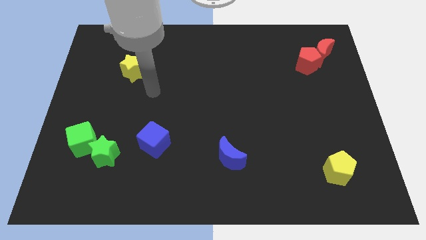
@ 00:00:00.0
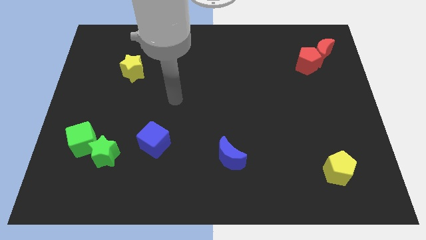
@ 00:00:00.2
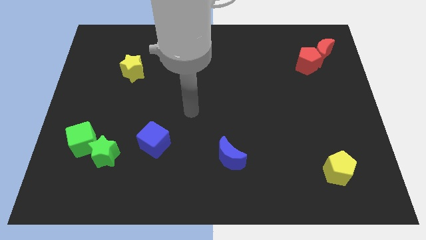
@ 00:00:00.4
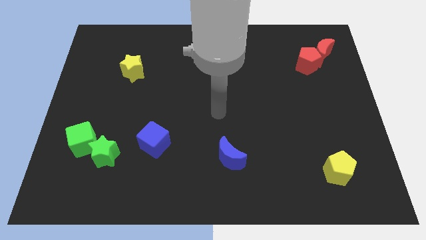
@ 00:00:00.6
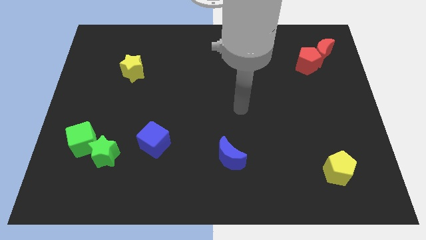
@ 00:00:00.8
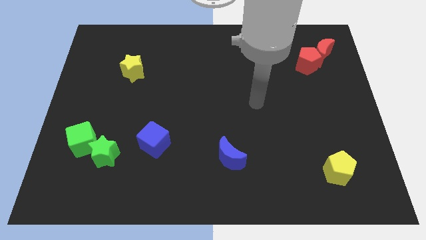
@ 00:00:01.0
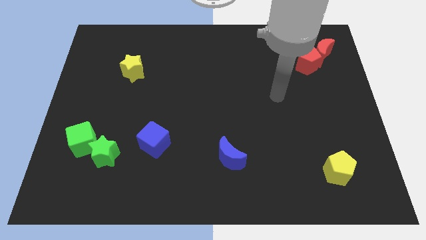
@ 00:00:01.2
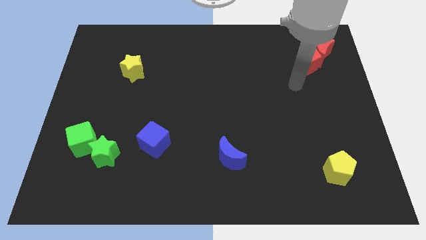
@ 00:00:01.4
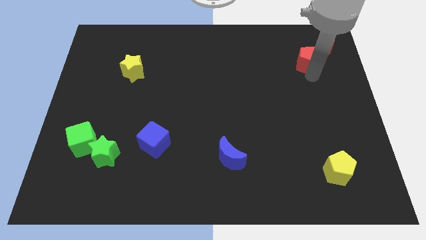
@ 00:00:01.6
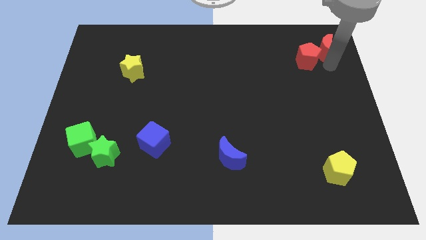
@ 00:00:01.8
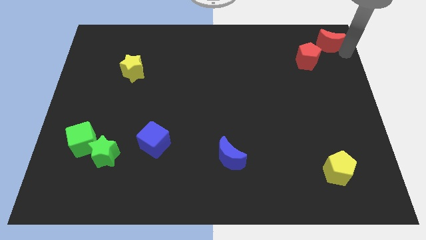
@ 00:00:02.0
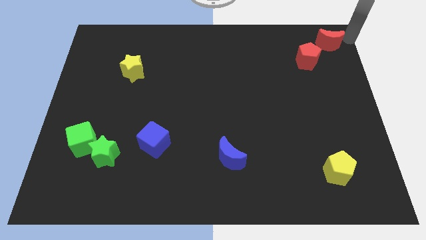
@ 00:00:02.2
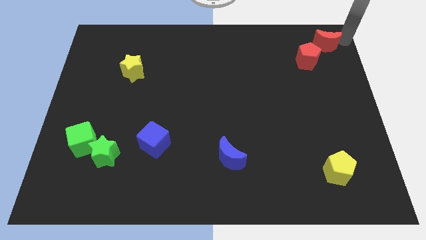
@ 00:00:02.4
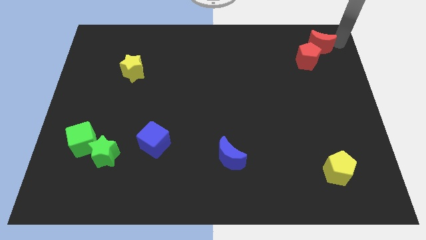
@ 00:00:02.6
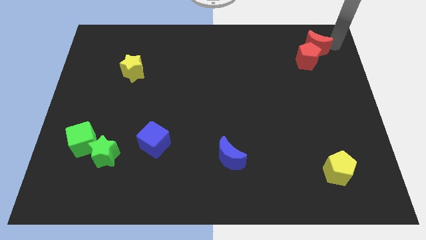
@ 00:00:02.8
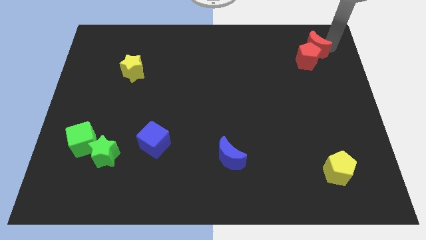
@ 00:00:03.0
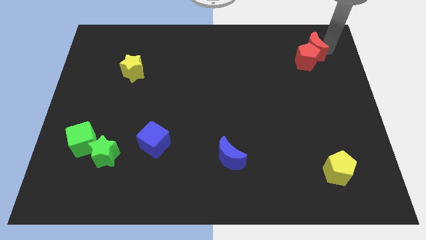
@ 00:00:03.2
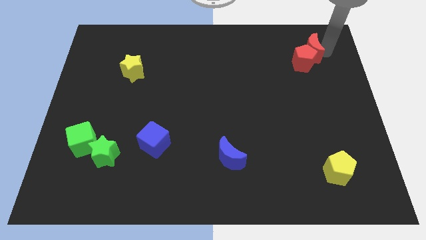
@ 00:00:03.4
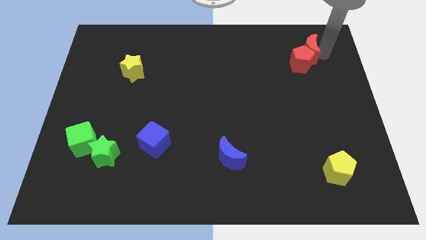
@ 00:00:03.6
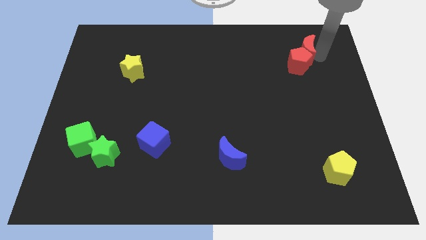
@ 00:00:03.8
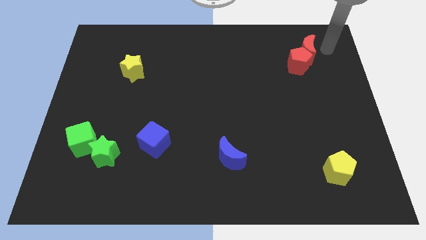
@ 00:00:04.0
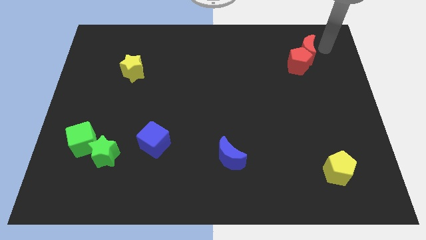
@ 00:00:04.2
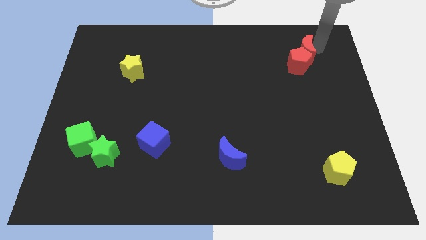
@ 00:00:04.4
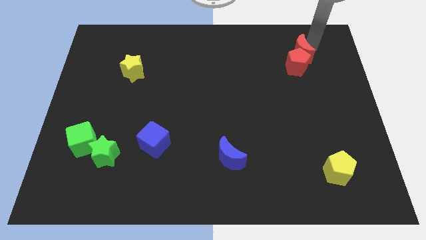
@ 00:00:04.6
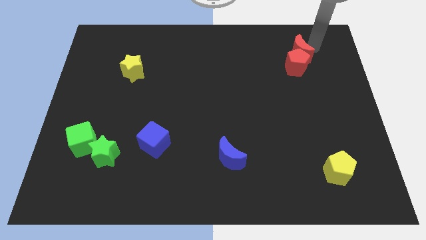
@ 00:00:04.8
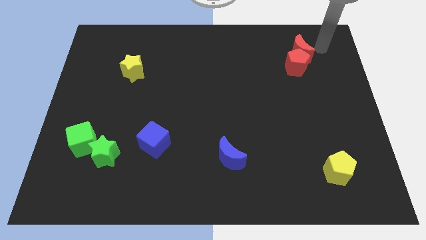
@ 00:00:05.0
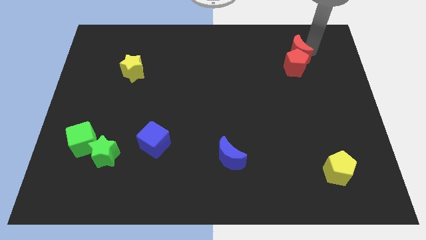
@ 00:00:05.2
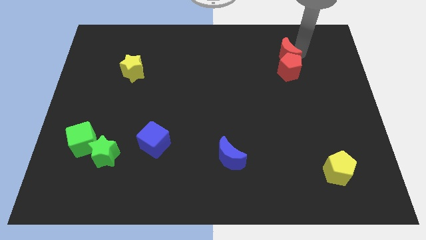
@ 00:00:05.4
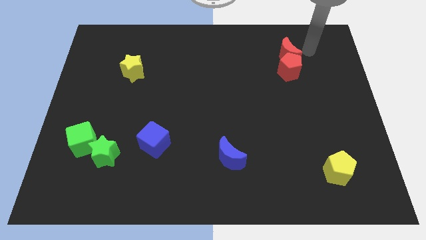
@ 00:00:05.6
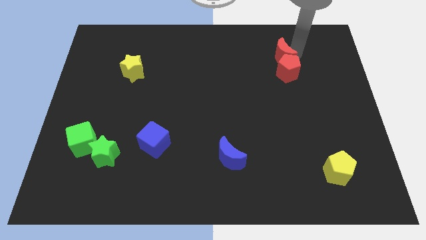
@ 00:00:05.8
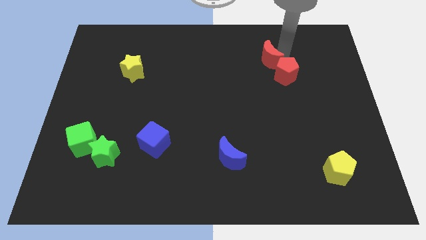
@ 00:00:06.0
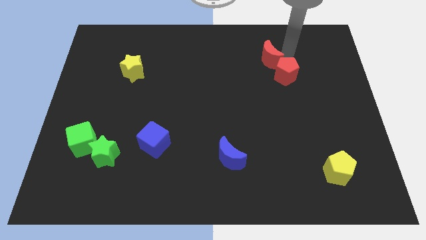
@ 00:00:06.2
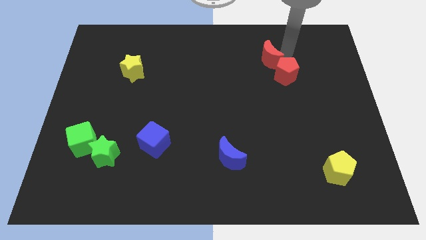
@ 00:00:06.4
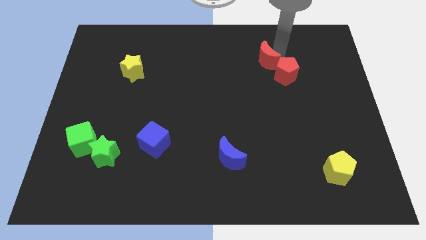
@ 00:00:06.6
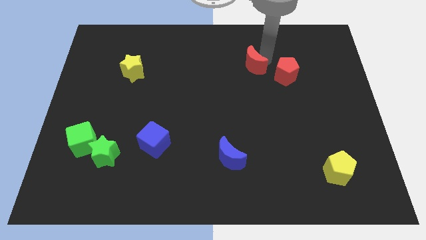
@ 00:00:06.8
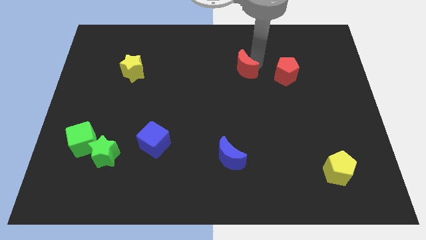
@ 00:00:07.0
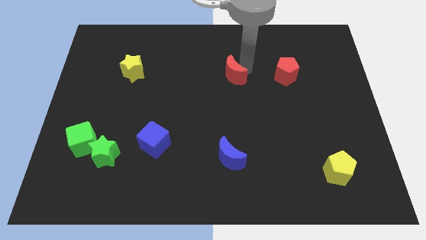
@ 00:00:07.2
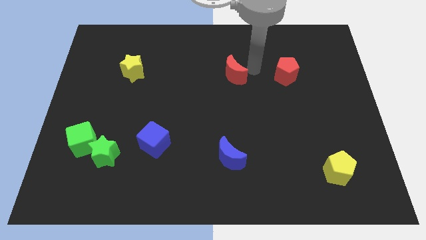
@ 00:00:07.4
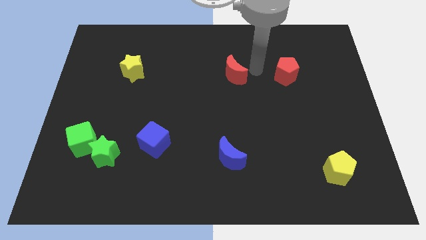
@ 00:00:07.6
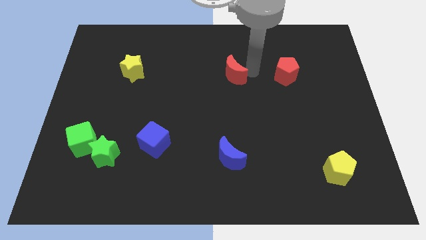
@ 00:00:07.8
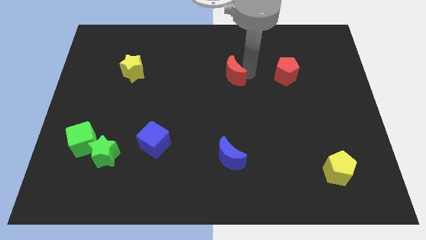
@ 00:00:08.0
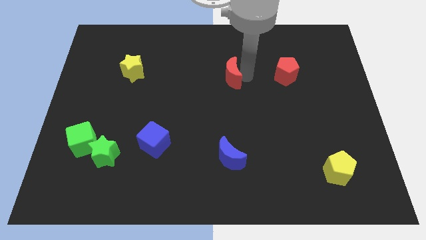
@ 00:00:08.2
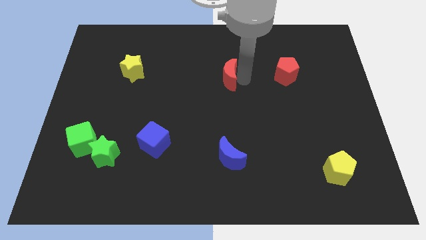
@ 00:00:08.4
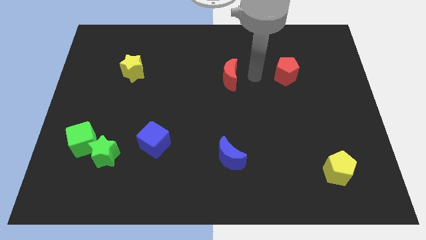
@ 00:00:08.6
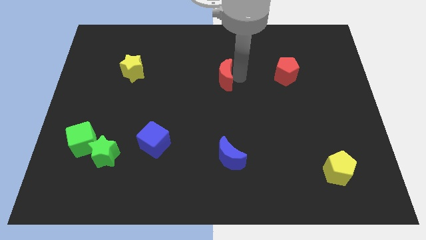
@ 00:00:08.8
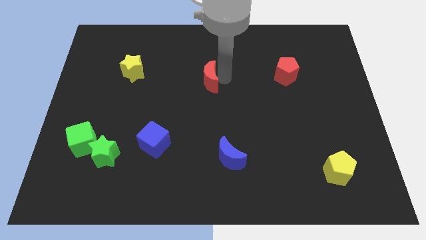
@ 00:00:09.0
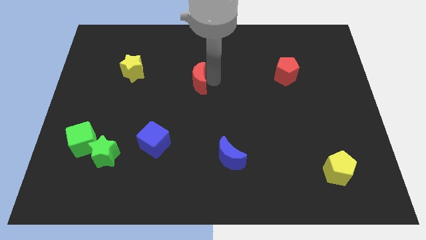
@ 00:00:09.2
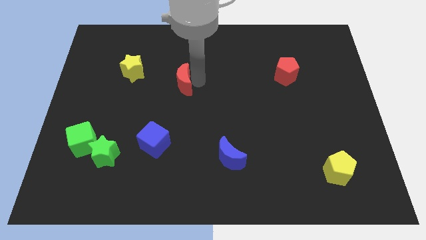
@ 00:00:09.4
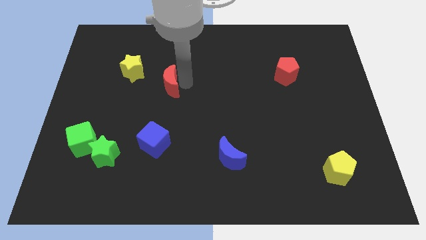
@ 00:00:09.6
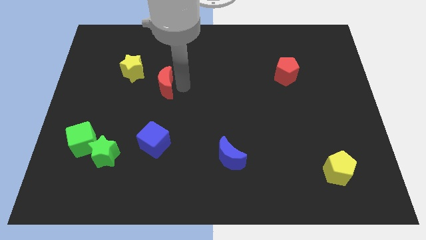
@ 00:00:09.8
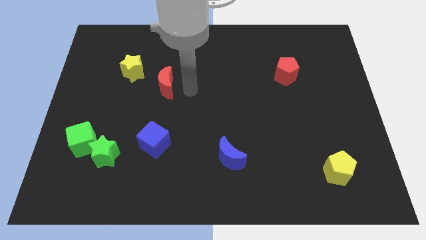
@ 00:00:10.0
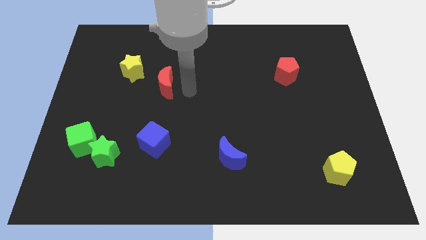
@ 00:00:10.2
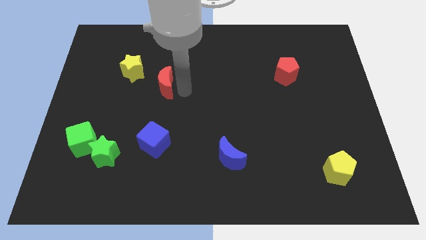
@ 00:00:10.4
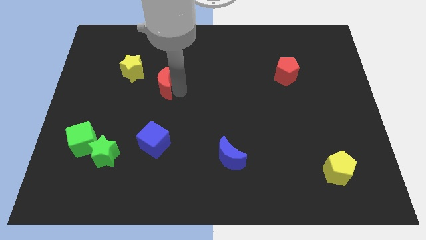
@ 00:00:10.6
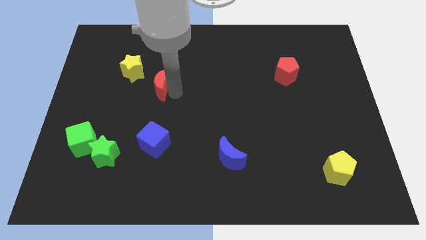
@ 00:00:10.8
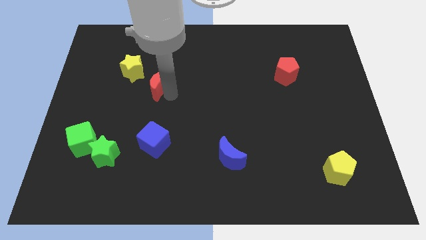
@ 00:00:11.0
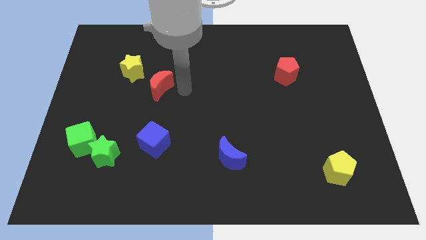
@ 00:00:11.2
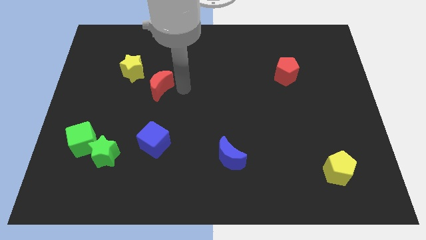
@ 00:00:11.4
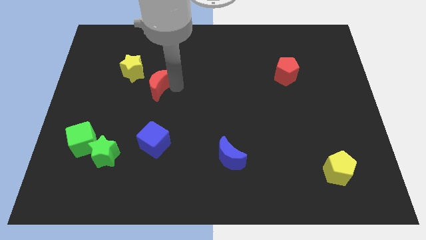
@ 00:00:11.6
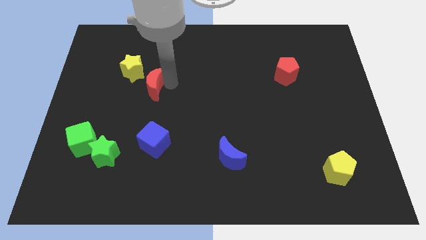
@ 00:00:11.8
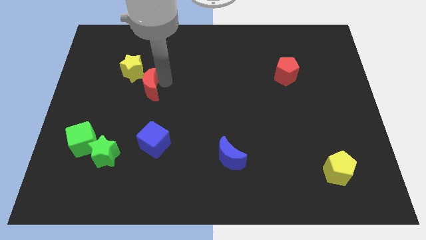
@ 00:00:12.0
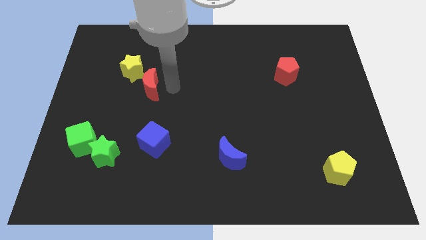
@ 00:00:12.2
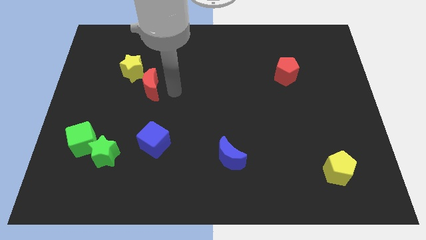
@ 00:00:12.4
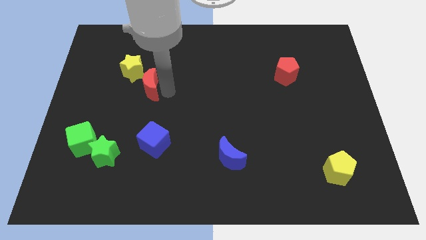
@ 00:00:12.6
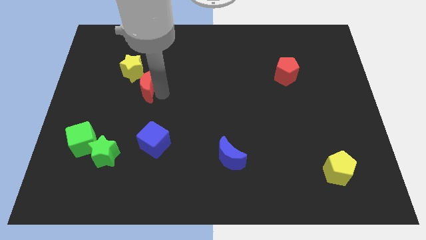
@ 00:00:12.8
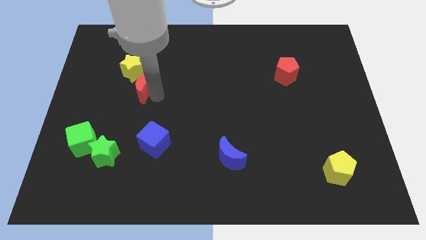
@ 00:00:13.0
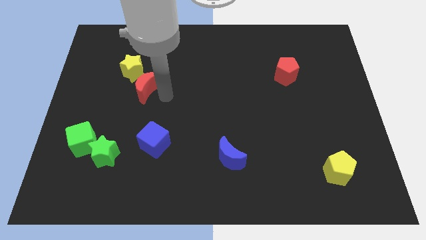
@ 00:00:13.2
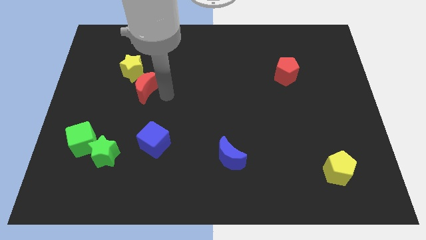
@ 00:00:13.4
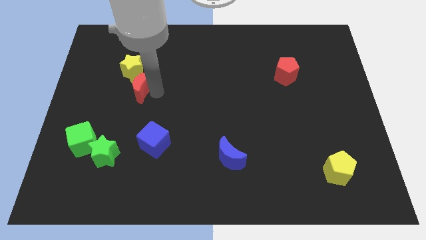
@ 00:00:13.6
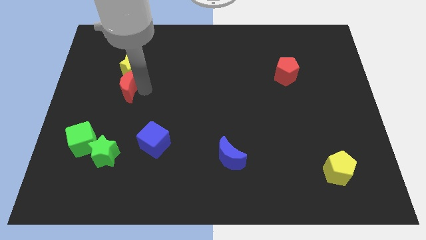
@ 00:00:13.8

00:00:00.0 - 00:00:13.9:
slide the red moon to the bottom left of the yellow star
